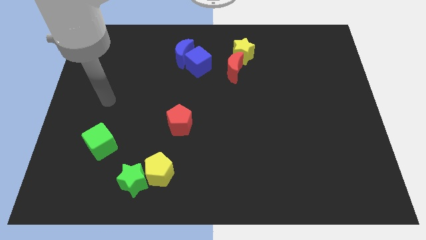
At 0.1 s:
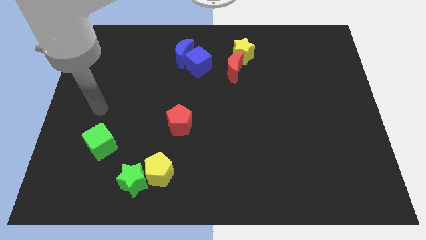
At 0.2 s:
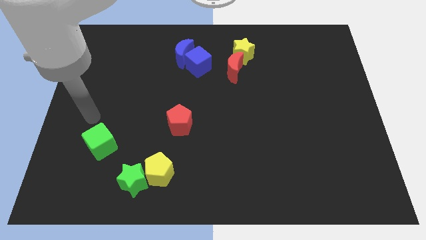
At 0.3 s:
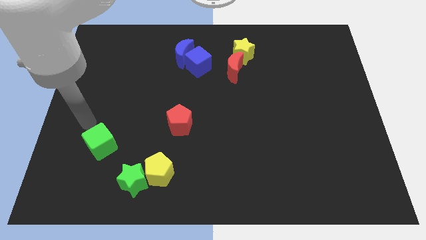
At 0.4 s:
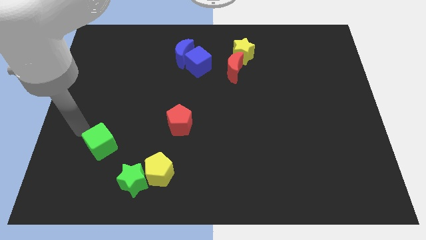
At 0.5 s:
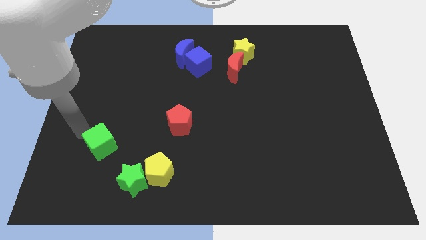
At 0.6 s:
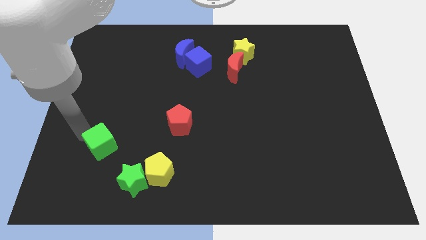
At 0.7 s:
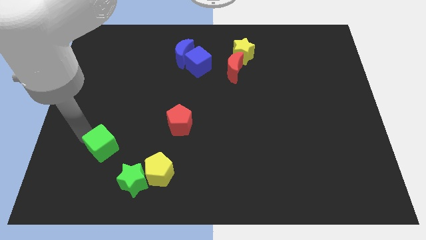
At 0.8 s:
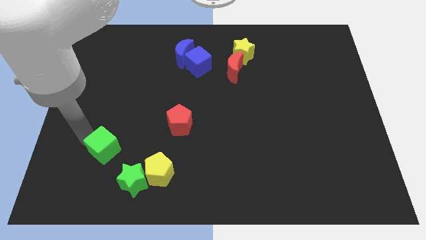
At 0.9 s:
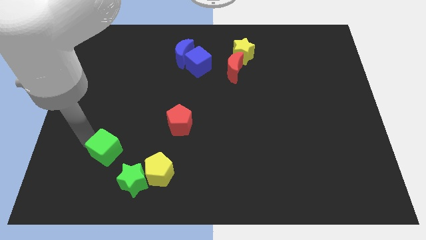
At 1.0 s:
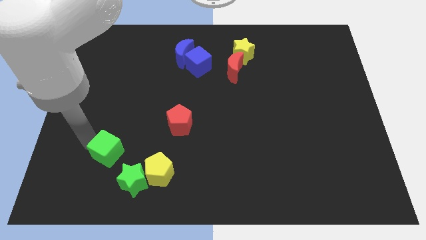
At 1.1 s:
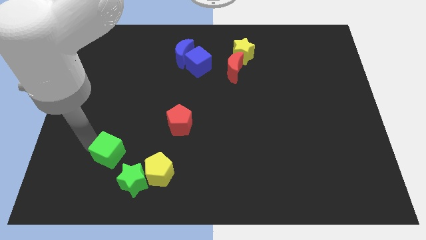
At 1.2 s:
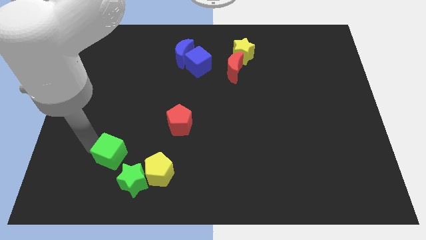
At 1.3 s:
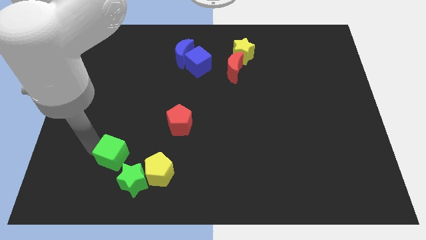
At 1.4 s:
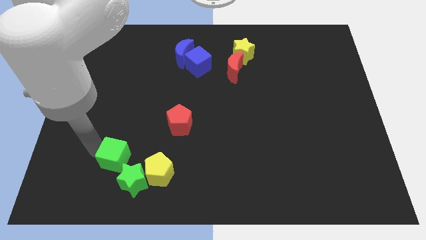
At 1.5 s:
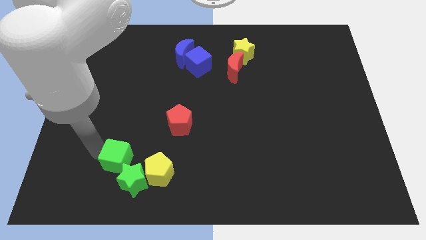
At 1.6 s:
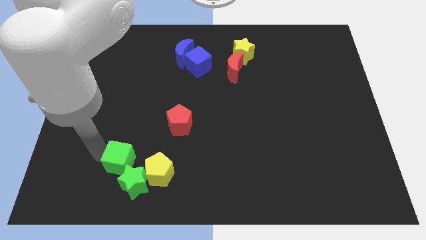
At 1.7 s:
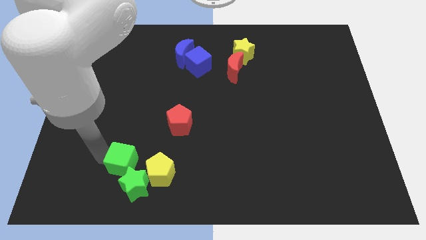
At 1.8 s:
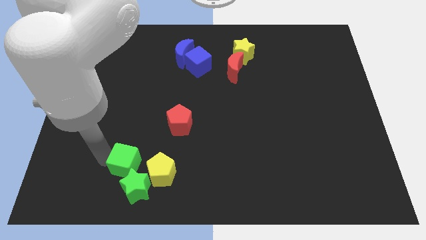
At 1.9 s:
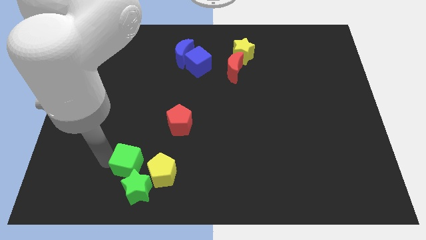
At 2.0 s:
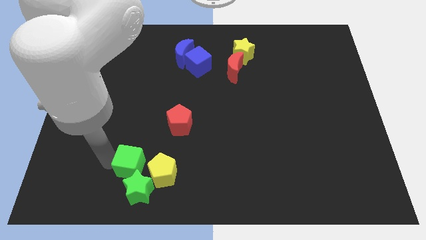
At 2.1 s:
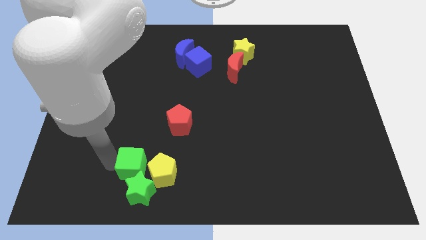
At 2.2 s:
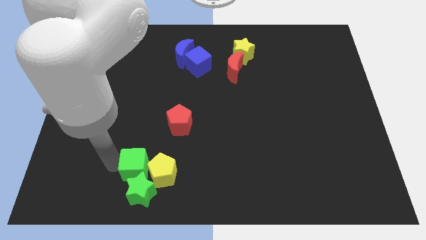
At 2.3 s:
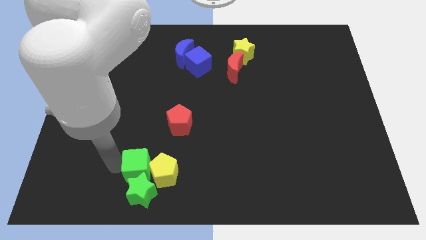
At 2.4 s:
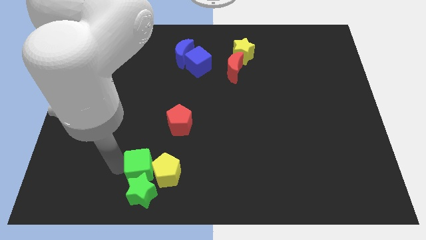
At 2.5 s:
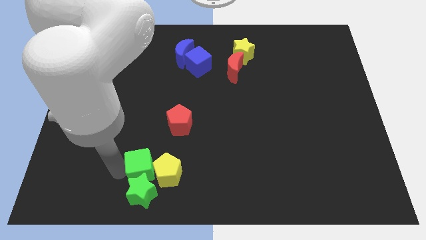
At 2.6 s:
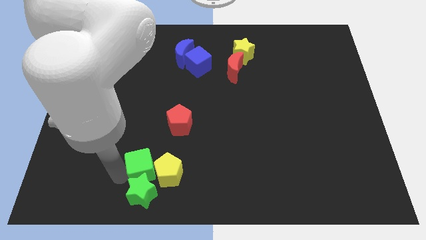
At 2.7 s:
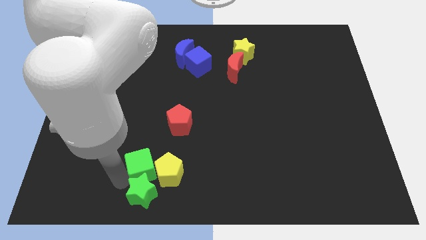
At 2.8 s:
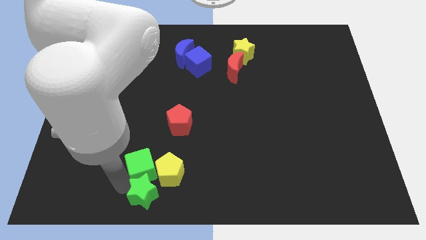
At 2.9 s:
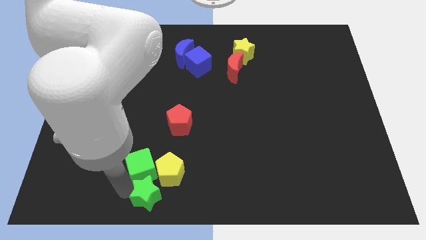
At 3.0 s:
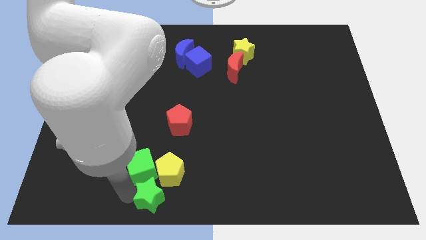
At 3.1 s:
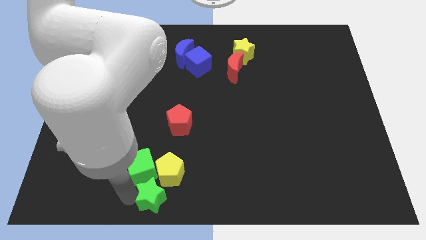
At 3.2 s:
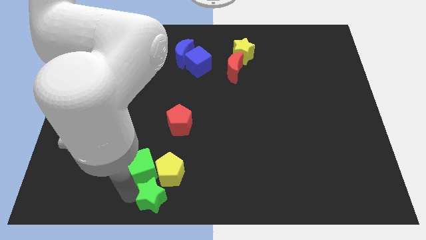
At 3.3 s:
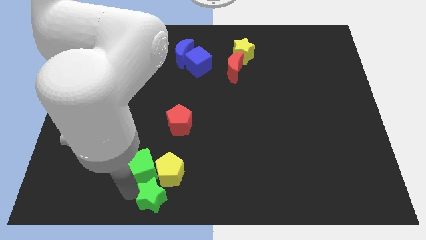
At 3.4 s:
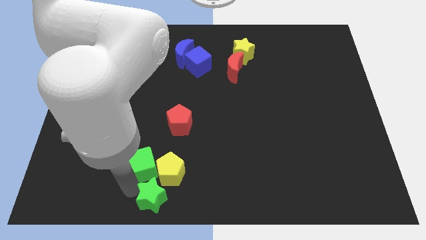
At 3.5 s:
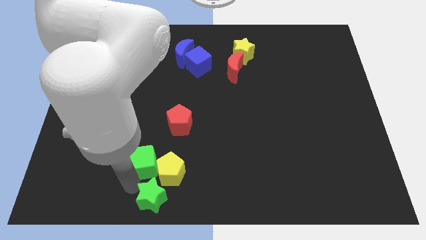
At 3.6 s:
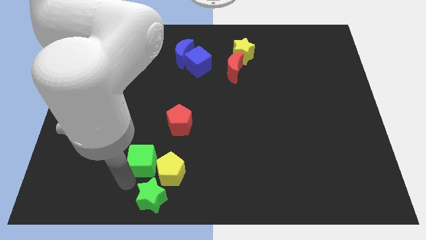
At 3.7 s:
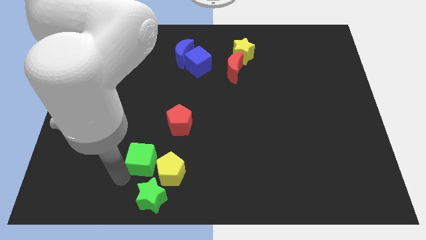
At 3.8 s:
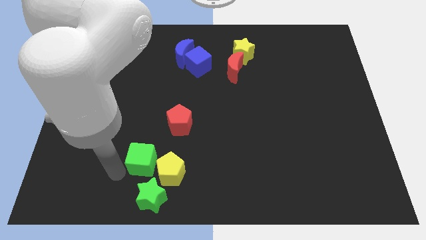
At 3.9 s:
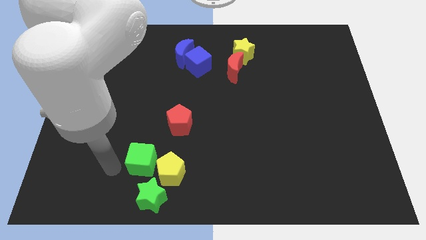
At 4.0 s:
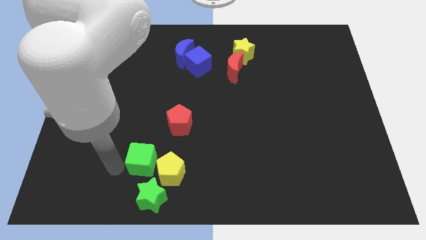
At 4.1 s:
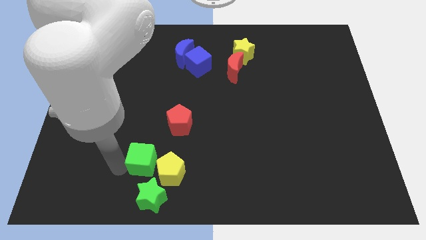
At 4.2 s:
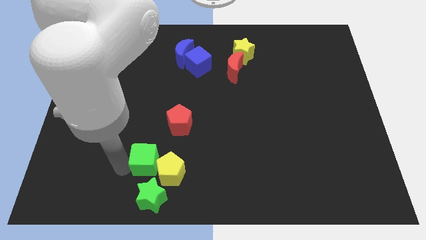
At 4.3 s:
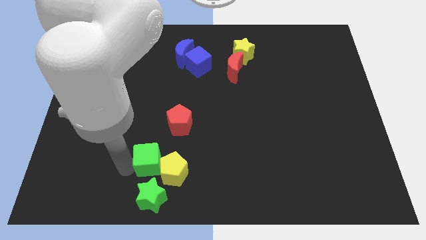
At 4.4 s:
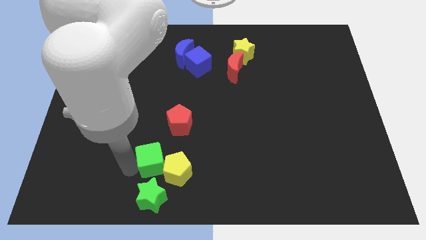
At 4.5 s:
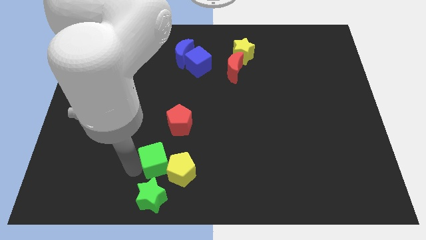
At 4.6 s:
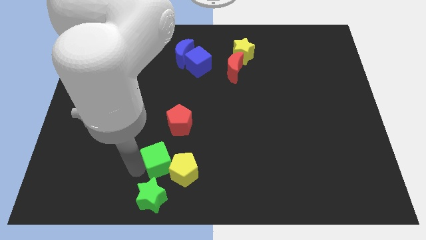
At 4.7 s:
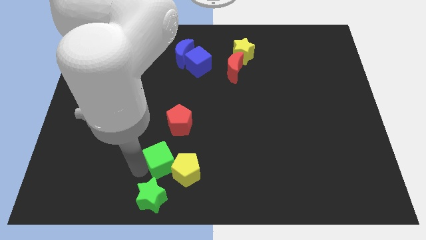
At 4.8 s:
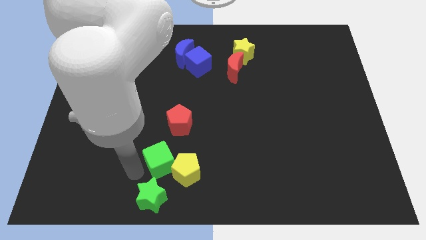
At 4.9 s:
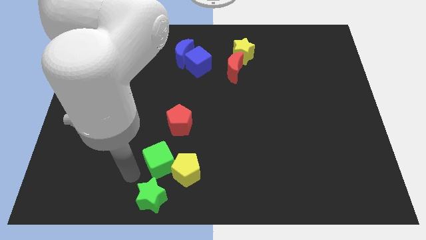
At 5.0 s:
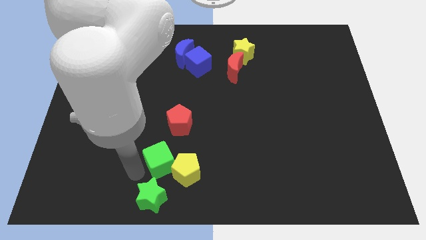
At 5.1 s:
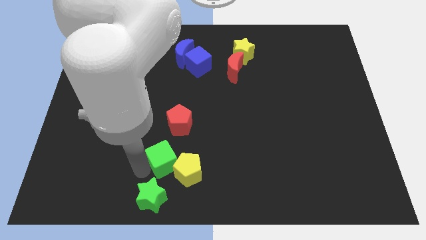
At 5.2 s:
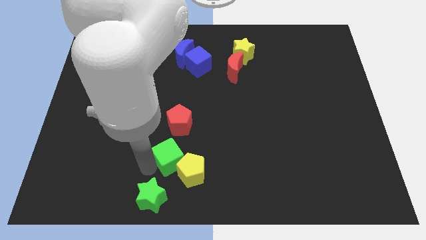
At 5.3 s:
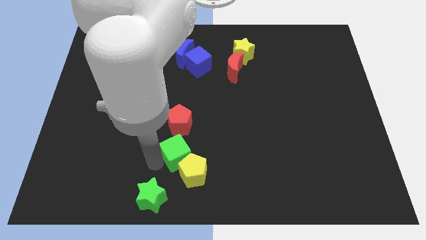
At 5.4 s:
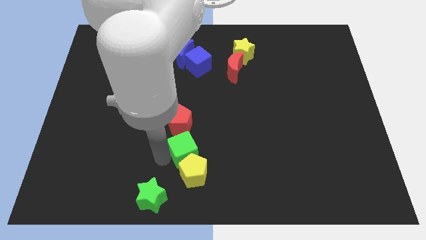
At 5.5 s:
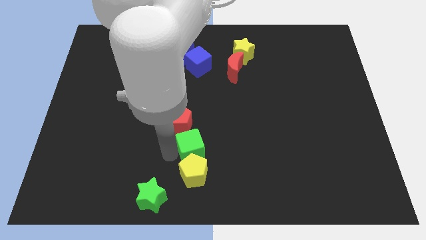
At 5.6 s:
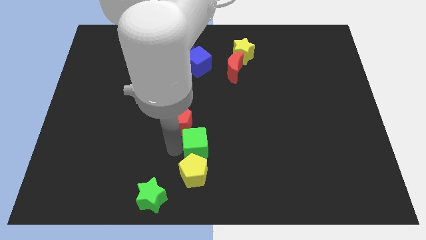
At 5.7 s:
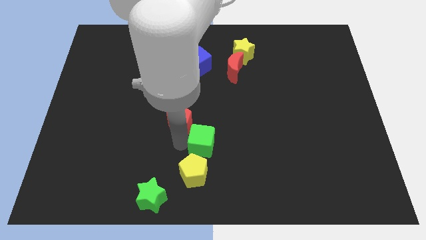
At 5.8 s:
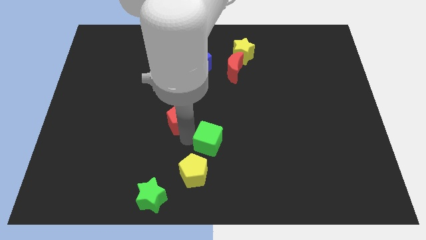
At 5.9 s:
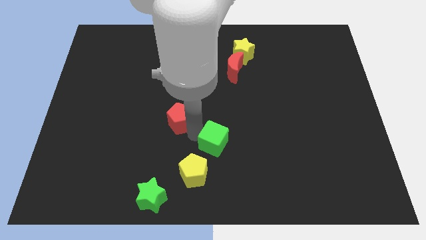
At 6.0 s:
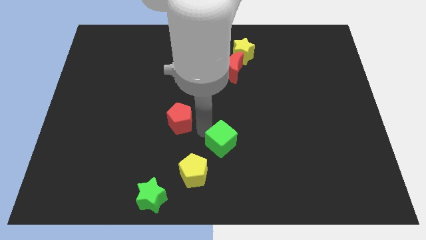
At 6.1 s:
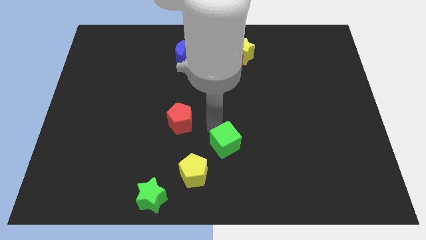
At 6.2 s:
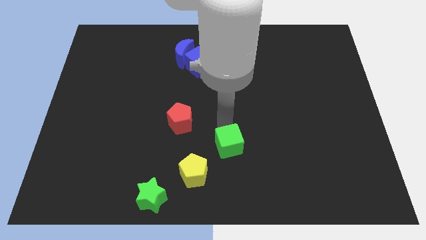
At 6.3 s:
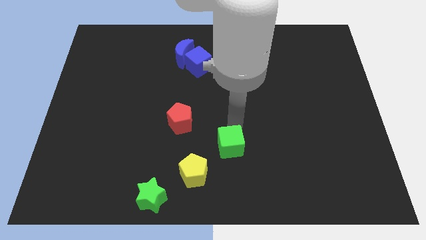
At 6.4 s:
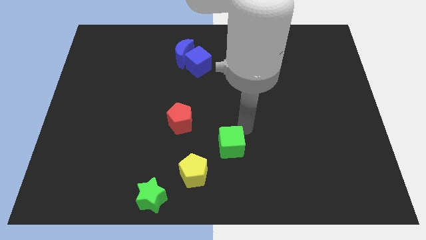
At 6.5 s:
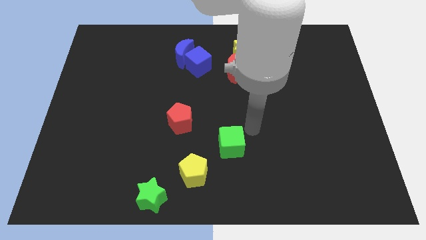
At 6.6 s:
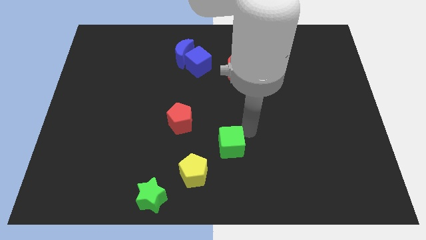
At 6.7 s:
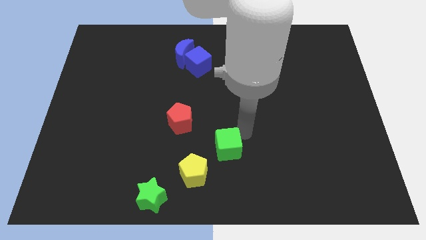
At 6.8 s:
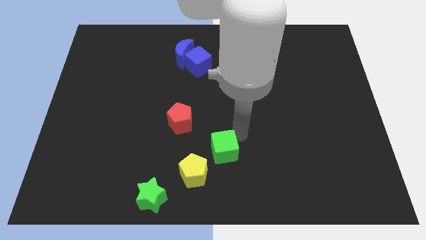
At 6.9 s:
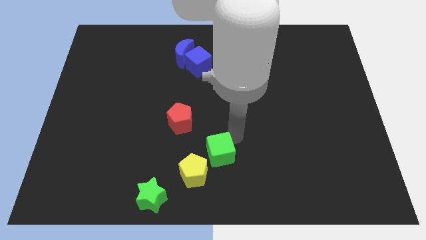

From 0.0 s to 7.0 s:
move the green cube to the bottom side

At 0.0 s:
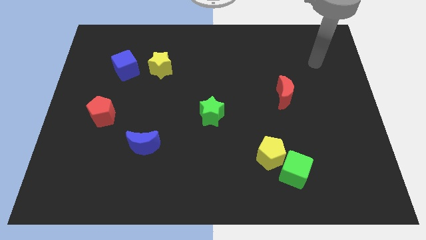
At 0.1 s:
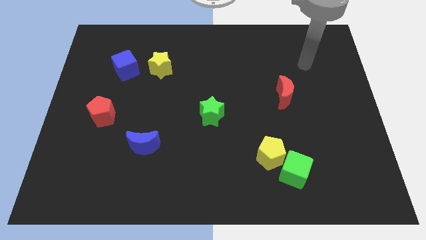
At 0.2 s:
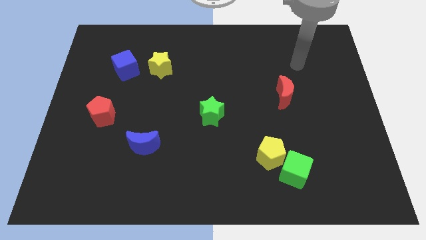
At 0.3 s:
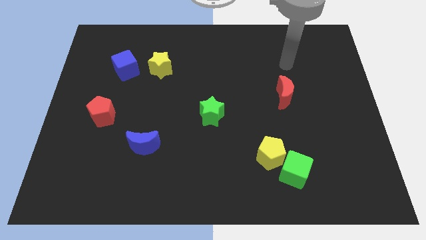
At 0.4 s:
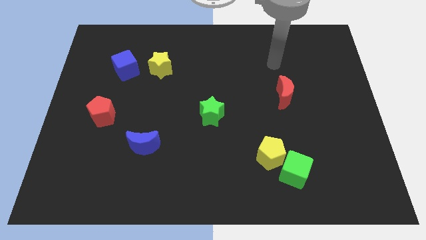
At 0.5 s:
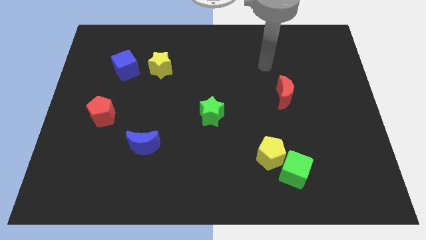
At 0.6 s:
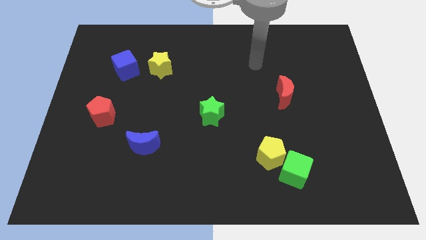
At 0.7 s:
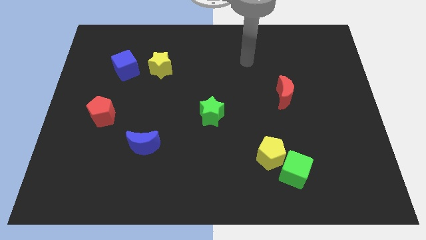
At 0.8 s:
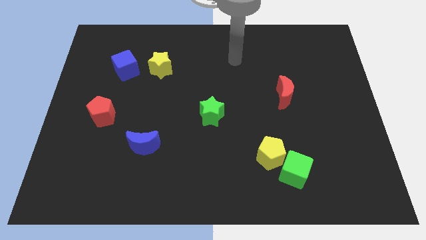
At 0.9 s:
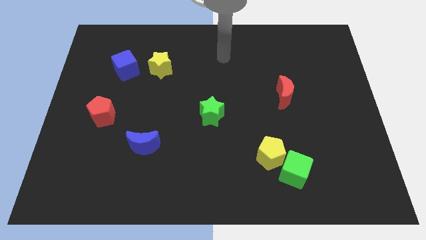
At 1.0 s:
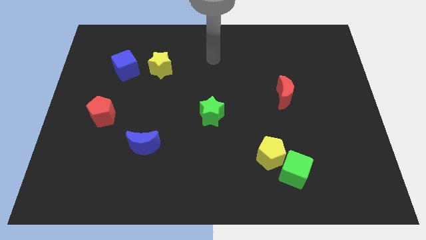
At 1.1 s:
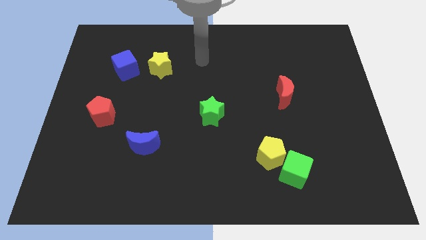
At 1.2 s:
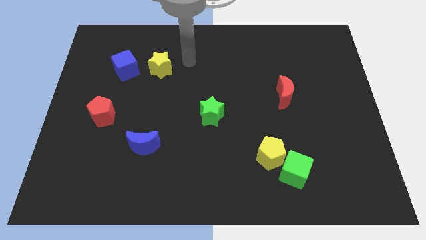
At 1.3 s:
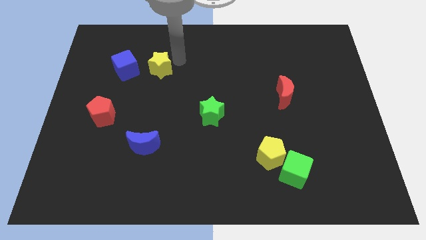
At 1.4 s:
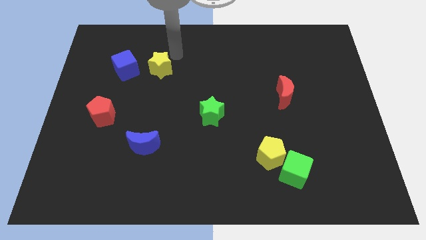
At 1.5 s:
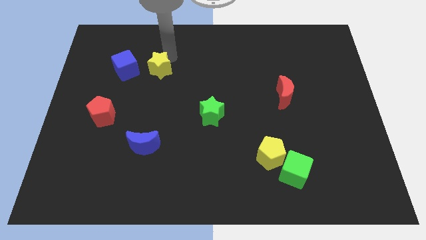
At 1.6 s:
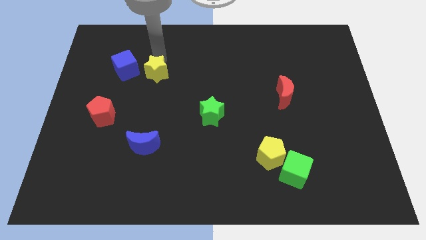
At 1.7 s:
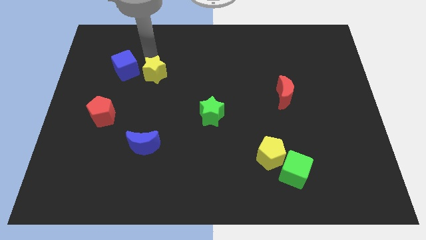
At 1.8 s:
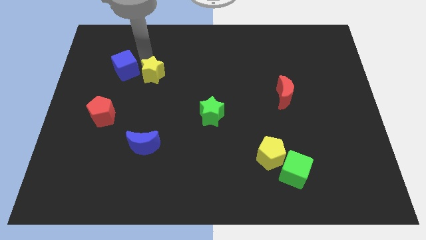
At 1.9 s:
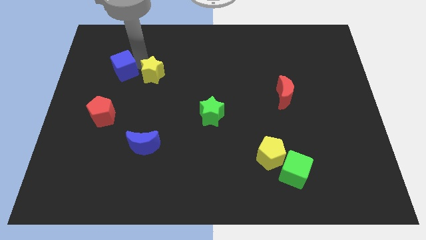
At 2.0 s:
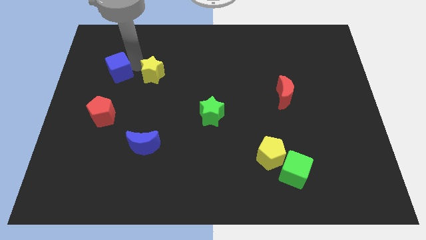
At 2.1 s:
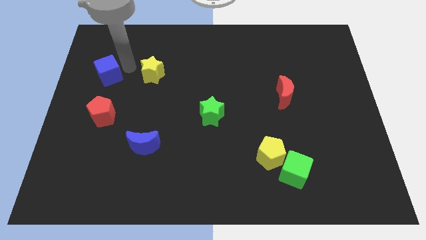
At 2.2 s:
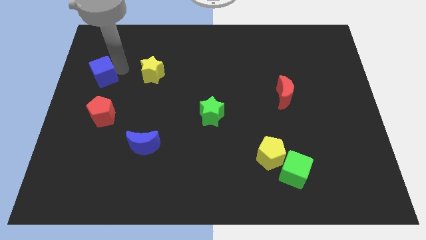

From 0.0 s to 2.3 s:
slide the blue cube to the left side
